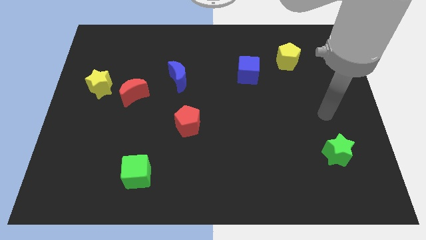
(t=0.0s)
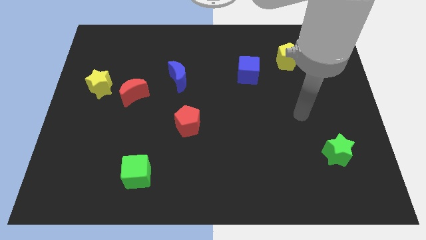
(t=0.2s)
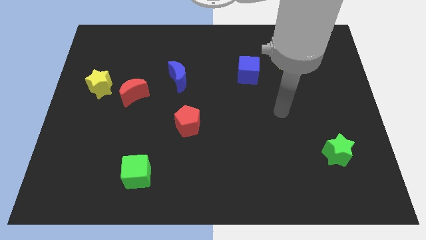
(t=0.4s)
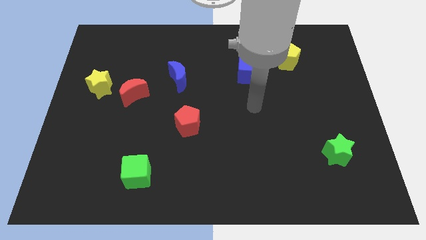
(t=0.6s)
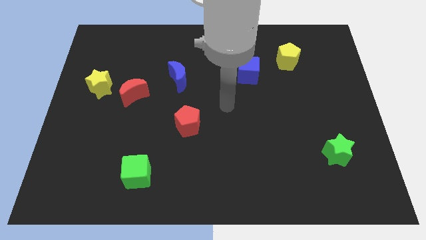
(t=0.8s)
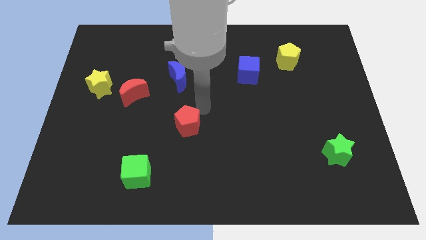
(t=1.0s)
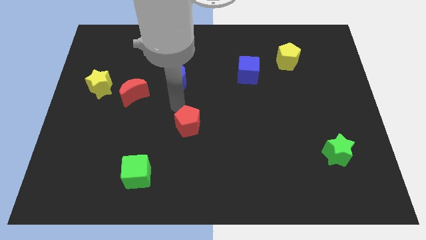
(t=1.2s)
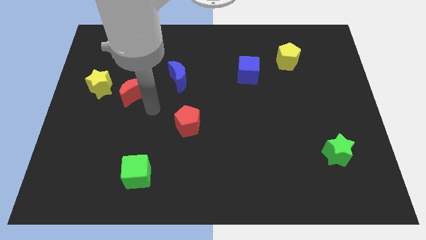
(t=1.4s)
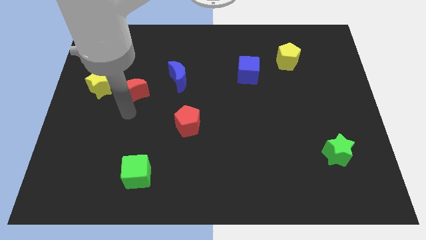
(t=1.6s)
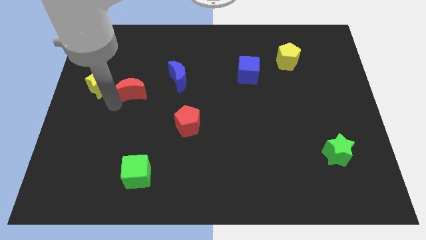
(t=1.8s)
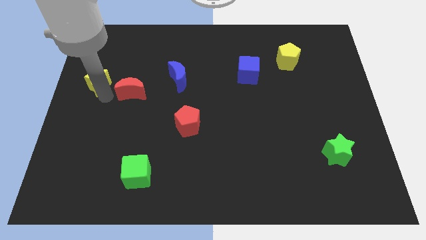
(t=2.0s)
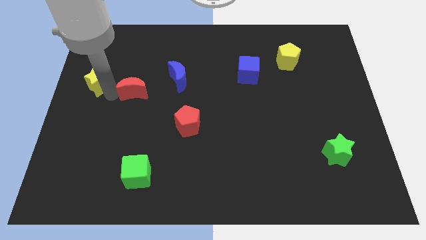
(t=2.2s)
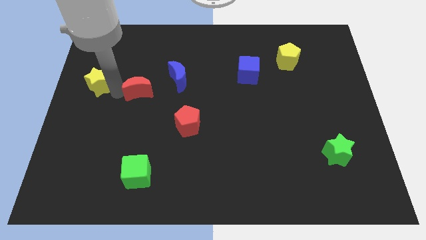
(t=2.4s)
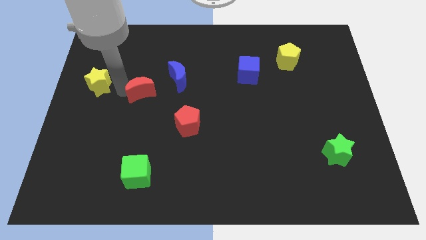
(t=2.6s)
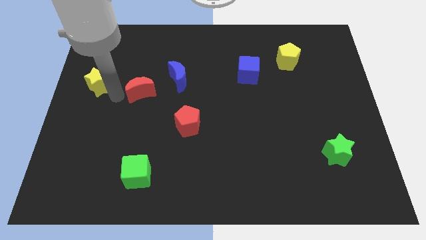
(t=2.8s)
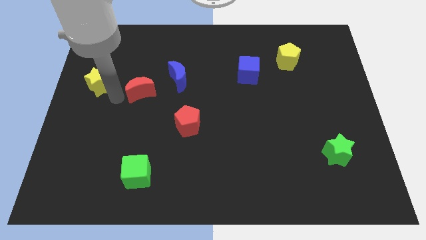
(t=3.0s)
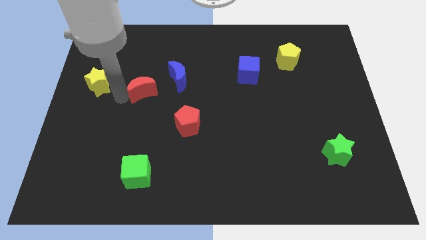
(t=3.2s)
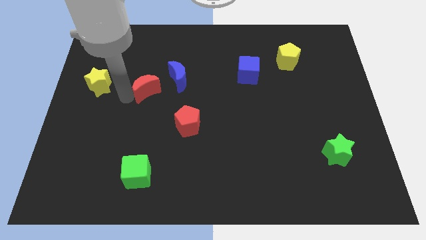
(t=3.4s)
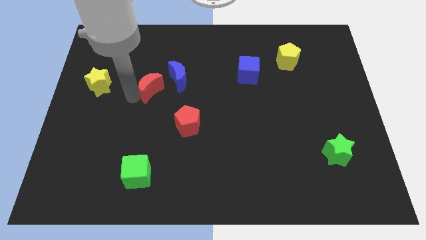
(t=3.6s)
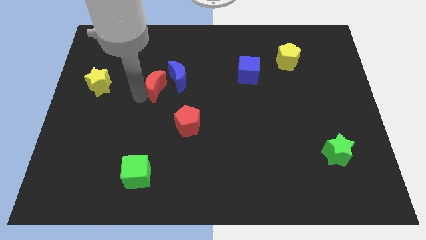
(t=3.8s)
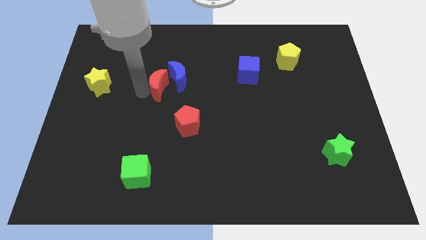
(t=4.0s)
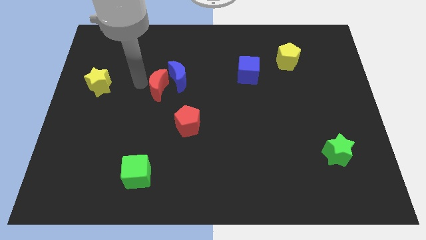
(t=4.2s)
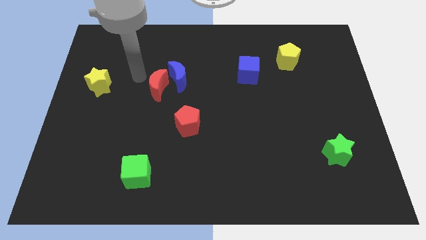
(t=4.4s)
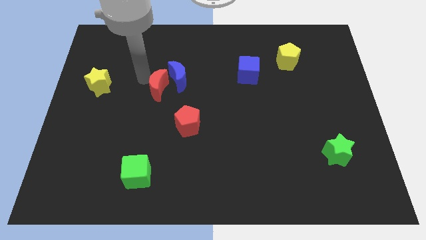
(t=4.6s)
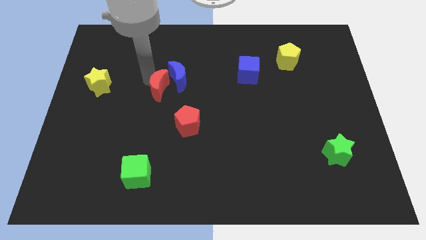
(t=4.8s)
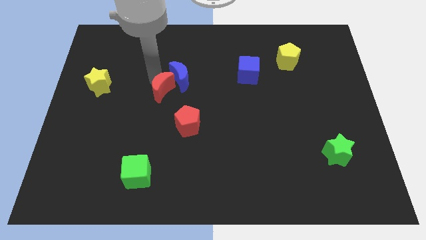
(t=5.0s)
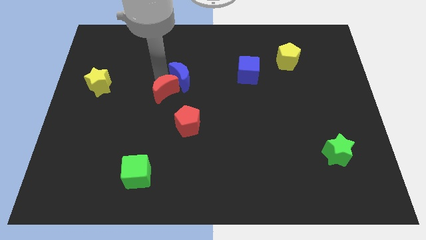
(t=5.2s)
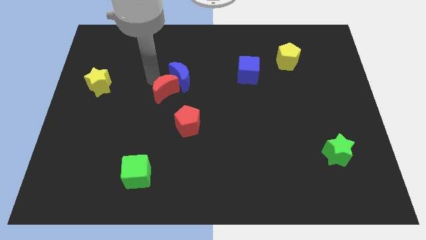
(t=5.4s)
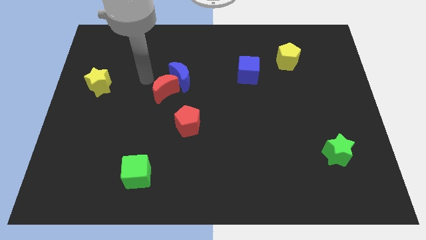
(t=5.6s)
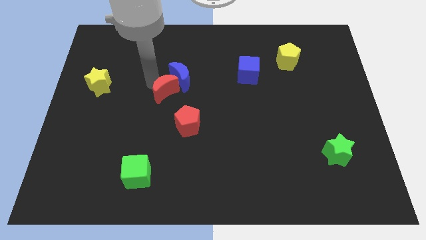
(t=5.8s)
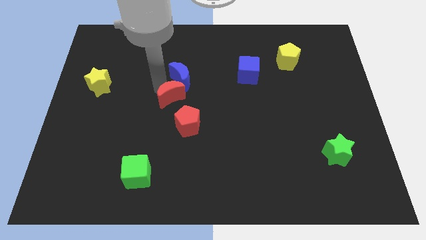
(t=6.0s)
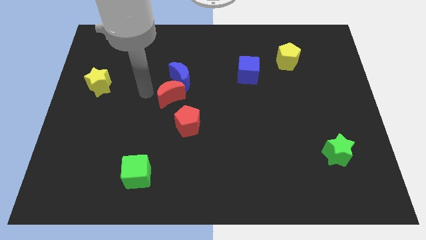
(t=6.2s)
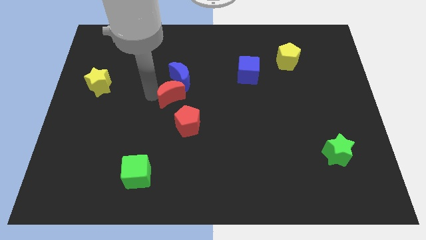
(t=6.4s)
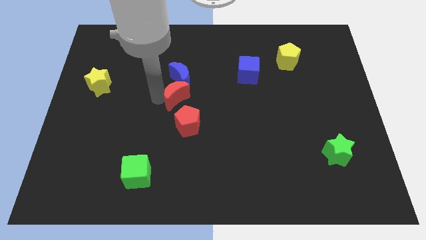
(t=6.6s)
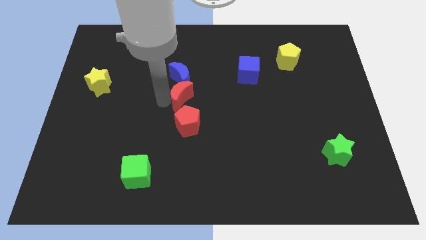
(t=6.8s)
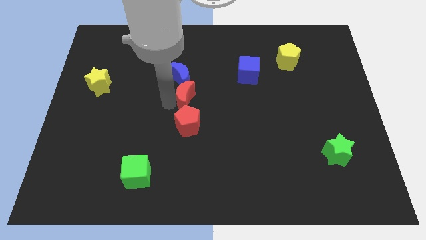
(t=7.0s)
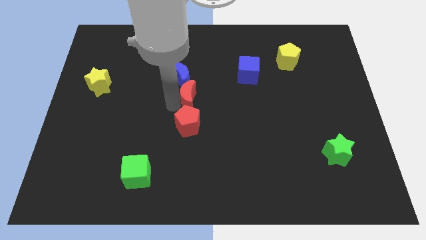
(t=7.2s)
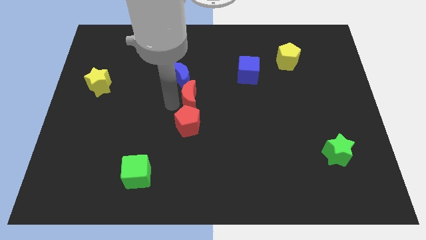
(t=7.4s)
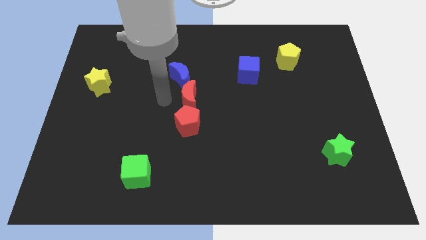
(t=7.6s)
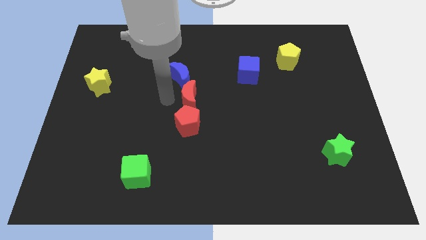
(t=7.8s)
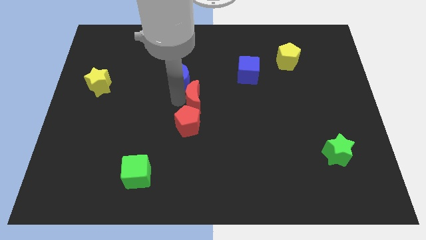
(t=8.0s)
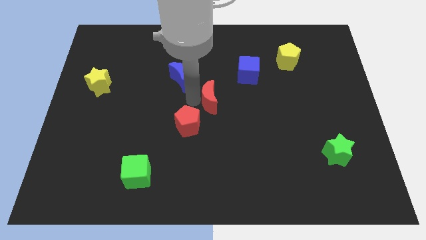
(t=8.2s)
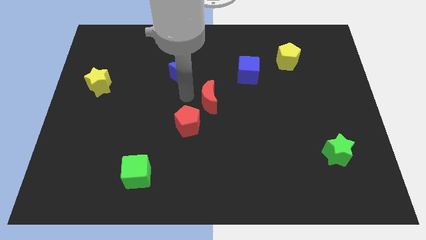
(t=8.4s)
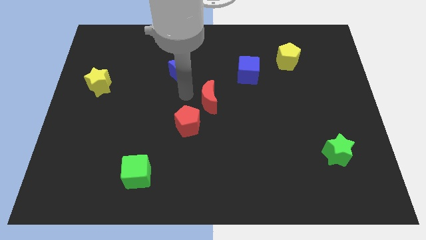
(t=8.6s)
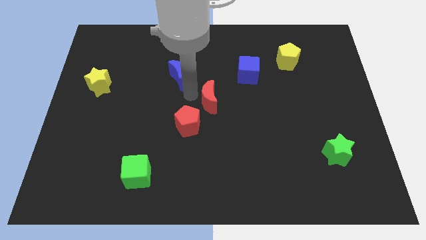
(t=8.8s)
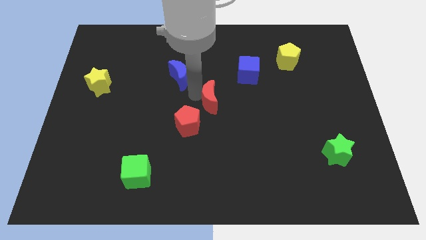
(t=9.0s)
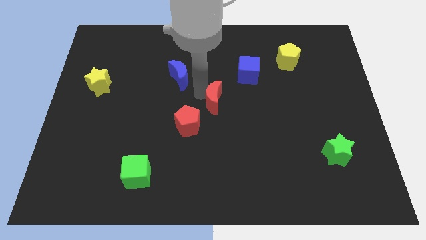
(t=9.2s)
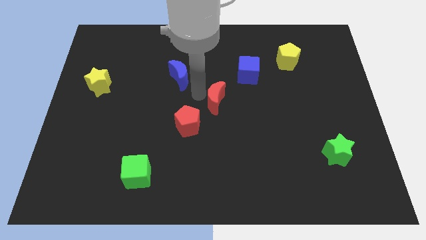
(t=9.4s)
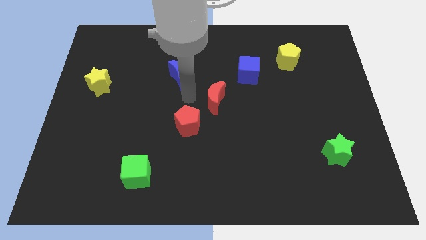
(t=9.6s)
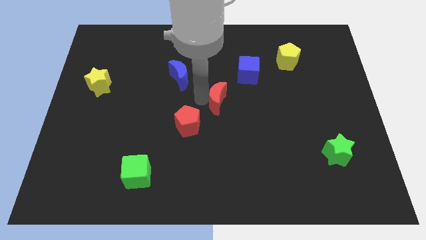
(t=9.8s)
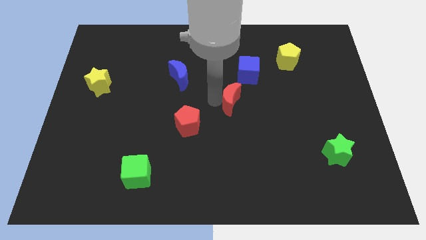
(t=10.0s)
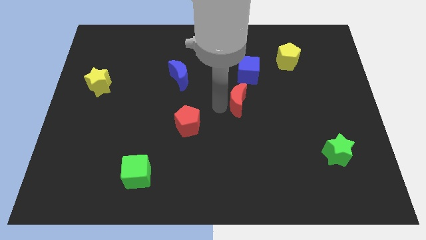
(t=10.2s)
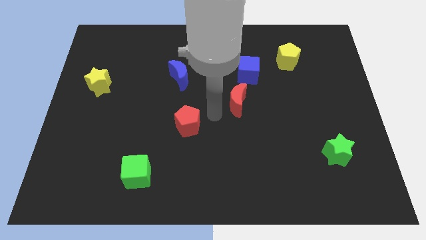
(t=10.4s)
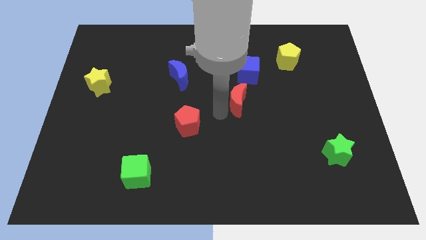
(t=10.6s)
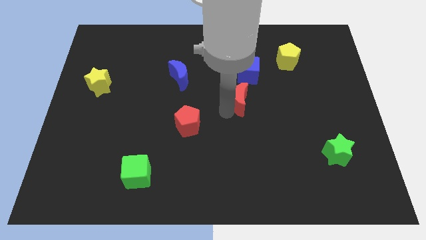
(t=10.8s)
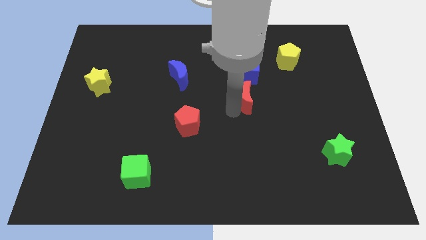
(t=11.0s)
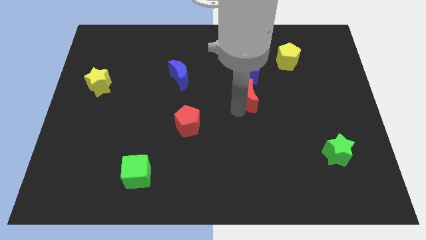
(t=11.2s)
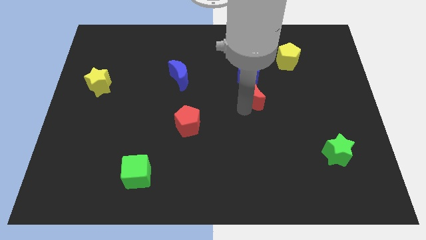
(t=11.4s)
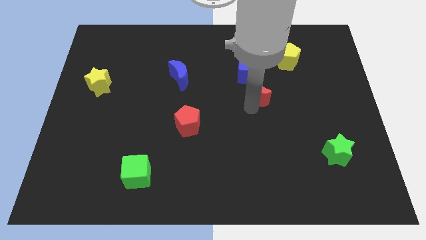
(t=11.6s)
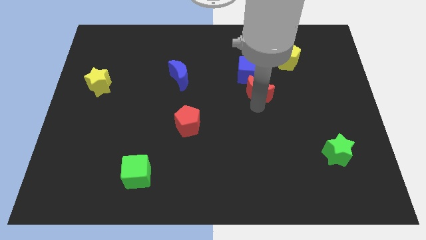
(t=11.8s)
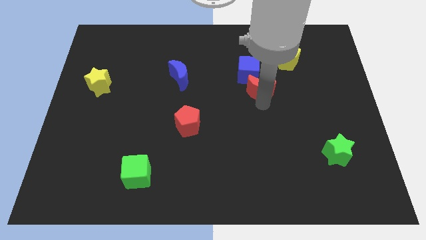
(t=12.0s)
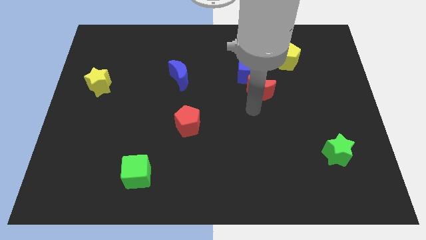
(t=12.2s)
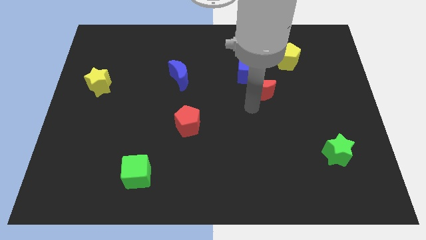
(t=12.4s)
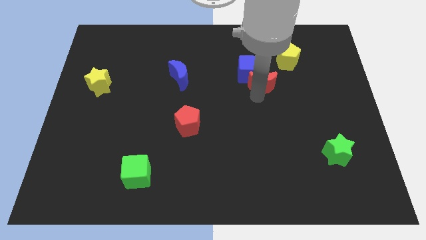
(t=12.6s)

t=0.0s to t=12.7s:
push the red moon diagonally down and to the left of the yellow pentagon
